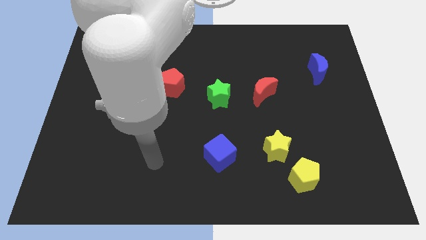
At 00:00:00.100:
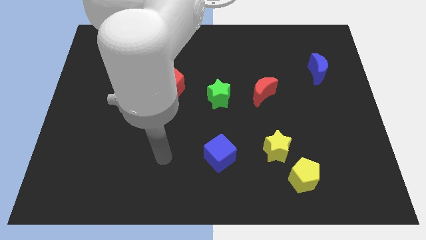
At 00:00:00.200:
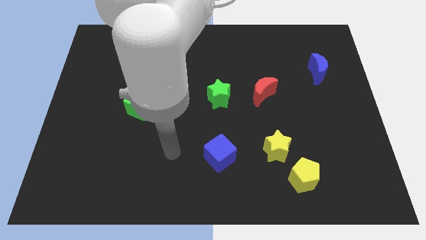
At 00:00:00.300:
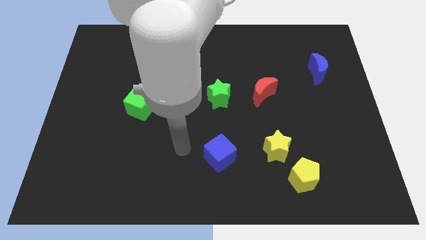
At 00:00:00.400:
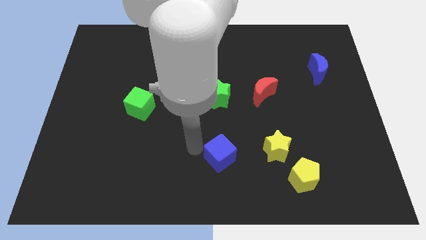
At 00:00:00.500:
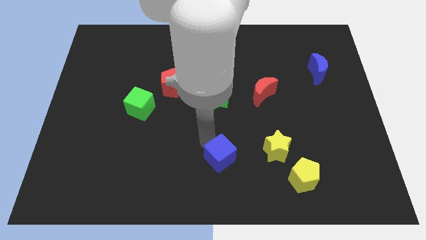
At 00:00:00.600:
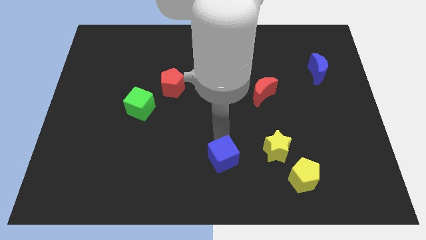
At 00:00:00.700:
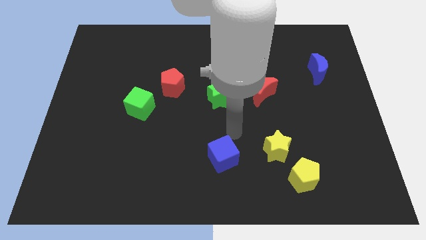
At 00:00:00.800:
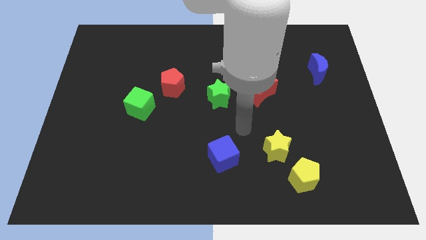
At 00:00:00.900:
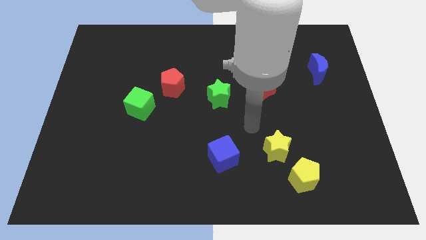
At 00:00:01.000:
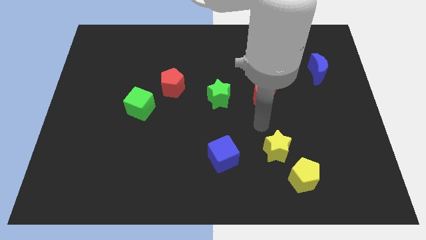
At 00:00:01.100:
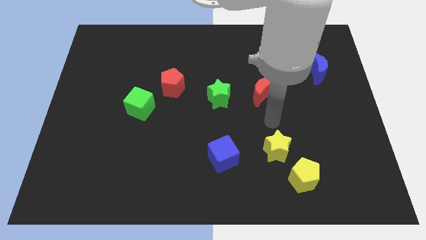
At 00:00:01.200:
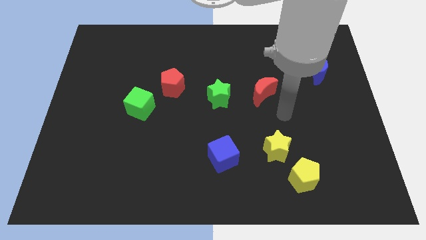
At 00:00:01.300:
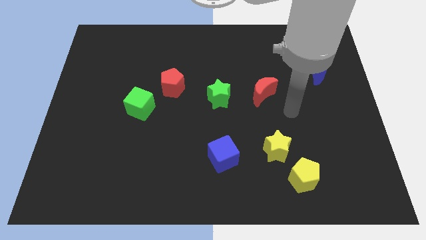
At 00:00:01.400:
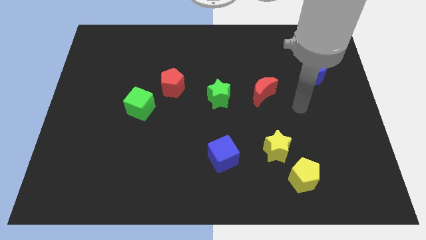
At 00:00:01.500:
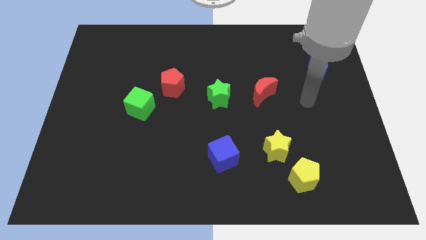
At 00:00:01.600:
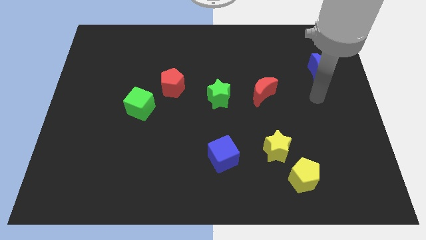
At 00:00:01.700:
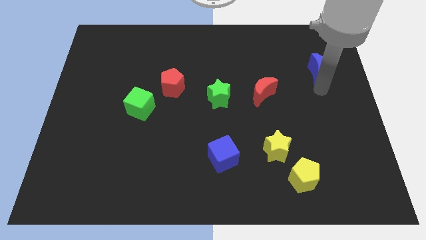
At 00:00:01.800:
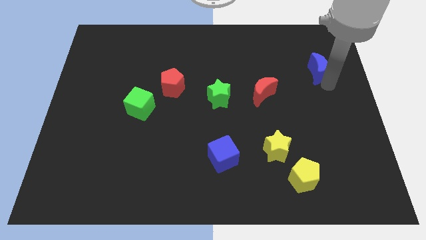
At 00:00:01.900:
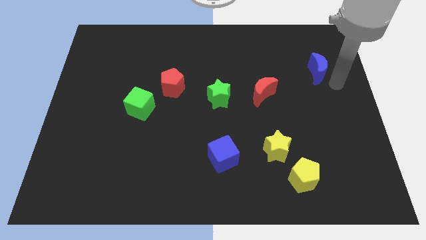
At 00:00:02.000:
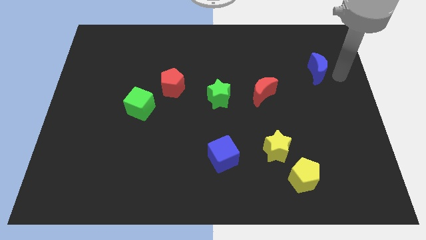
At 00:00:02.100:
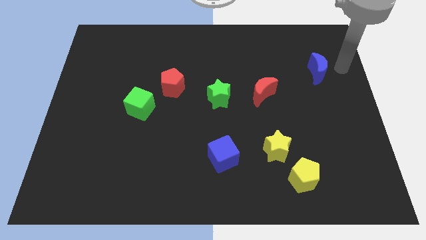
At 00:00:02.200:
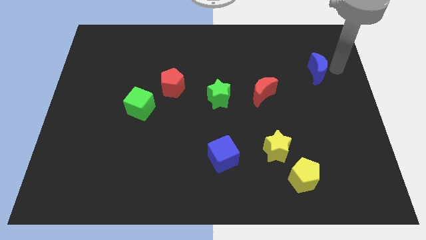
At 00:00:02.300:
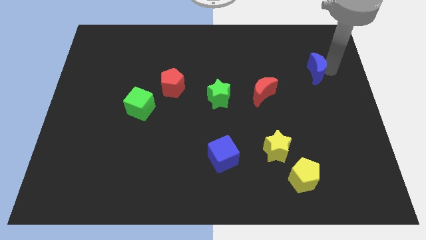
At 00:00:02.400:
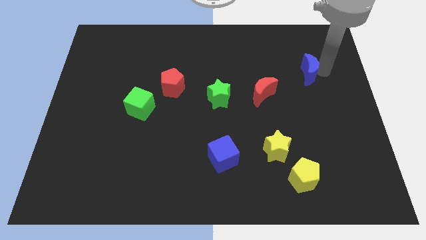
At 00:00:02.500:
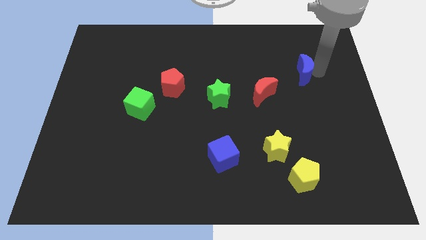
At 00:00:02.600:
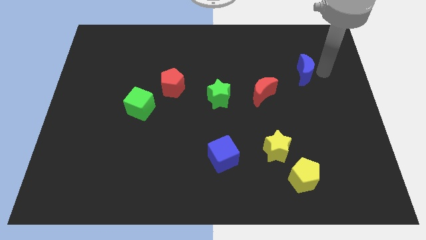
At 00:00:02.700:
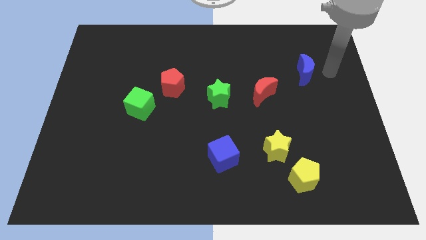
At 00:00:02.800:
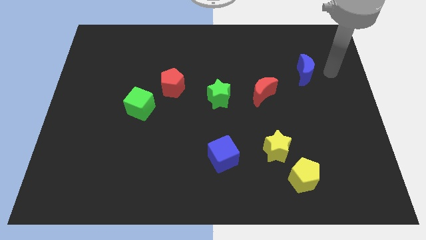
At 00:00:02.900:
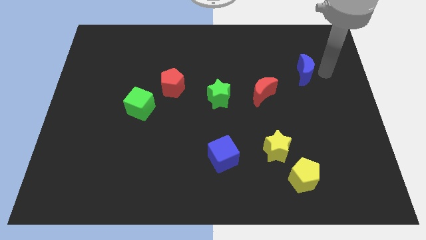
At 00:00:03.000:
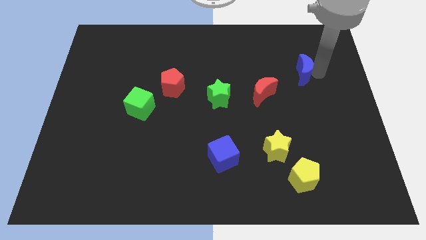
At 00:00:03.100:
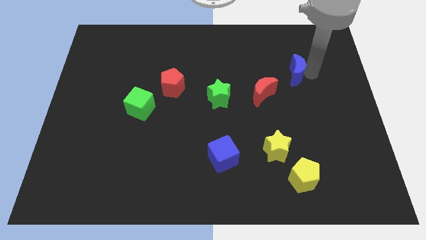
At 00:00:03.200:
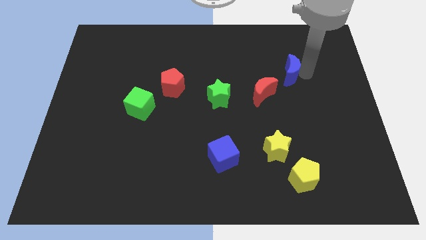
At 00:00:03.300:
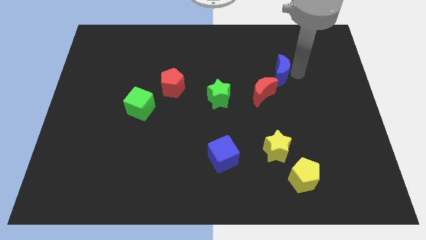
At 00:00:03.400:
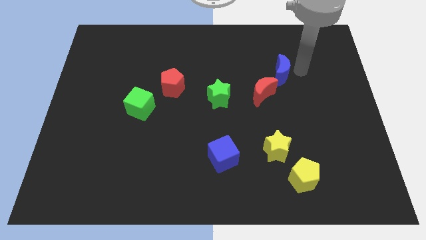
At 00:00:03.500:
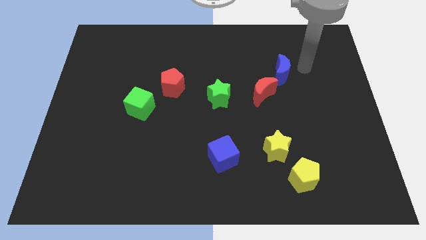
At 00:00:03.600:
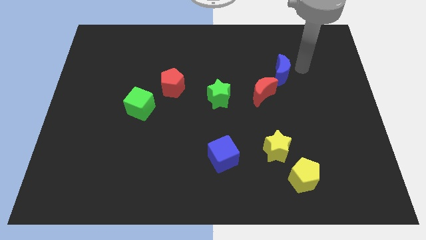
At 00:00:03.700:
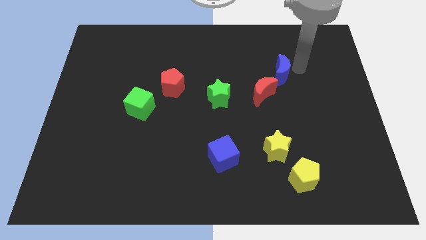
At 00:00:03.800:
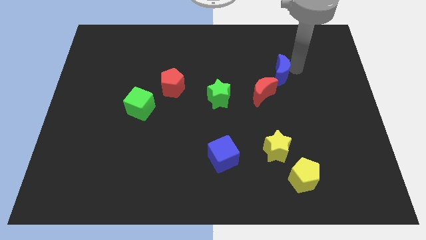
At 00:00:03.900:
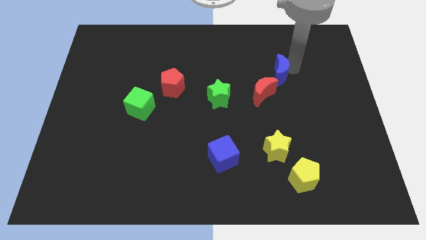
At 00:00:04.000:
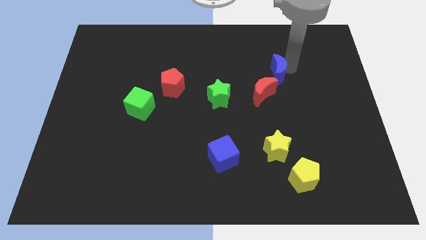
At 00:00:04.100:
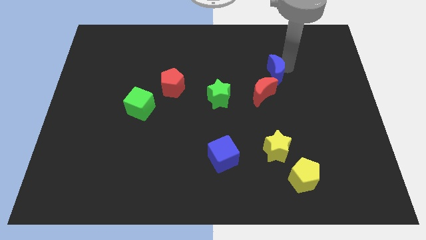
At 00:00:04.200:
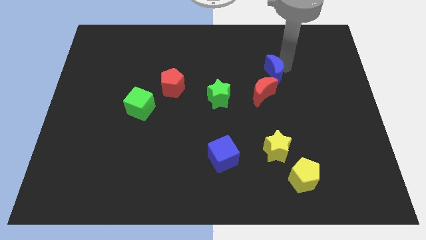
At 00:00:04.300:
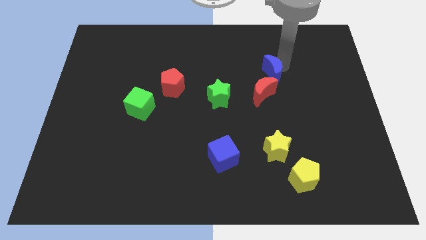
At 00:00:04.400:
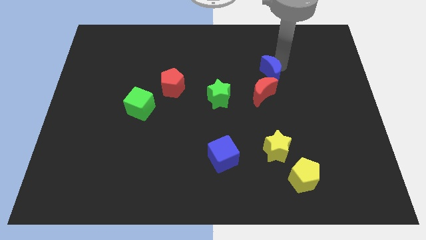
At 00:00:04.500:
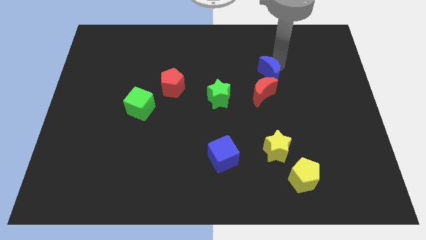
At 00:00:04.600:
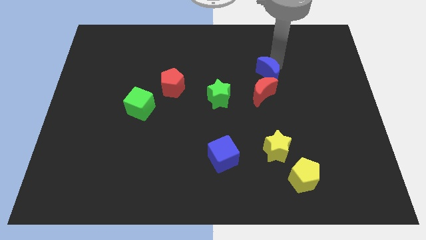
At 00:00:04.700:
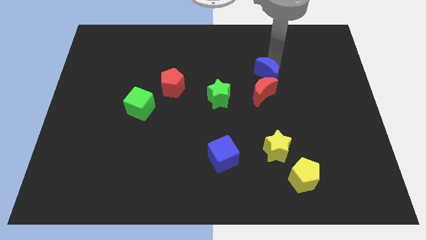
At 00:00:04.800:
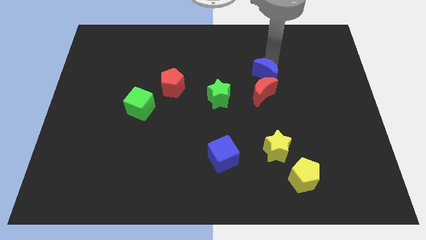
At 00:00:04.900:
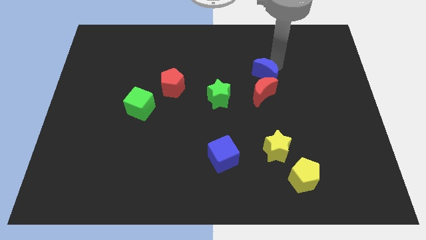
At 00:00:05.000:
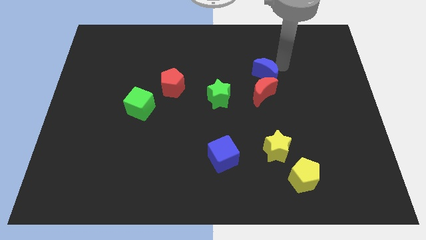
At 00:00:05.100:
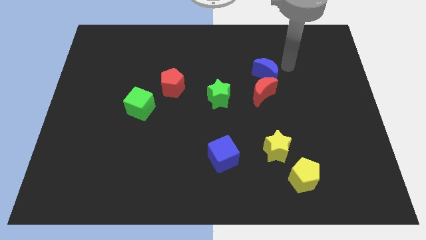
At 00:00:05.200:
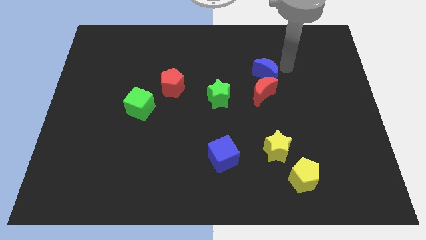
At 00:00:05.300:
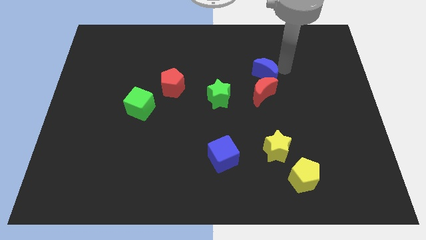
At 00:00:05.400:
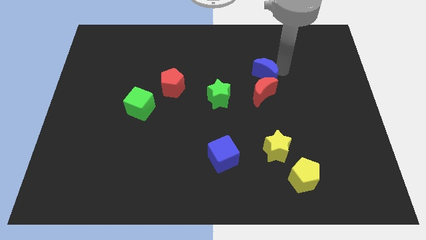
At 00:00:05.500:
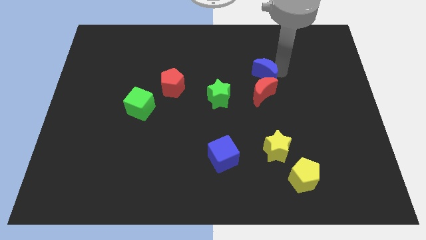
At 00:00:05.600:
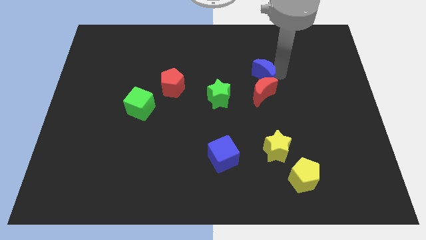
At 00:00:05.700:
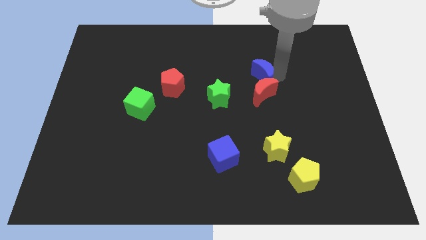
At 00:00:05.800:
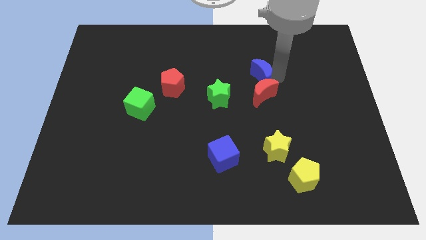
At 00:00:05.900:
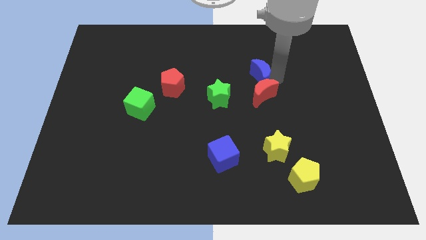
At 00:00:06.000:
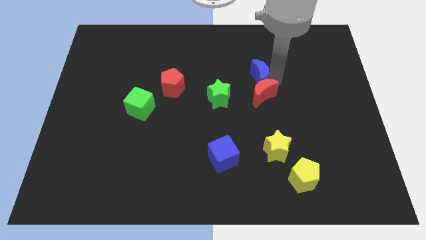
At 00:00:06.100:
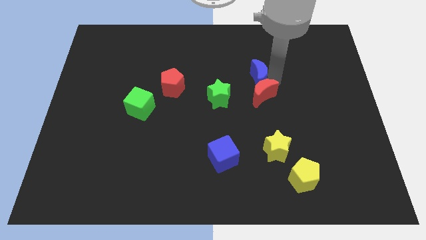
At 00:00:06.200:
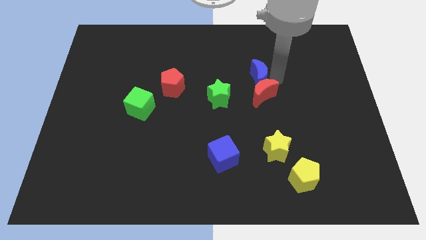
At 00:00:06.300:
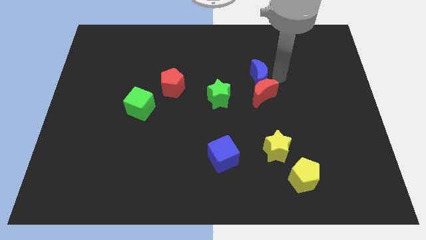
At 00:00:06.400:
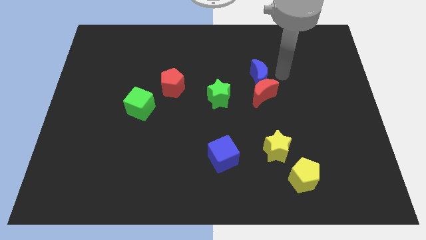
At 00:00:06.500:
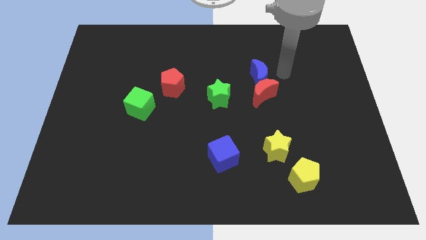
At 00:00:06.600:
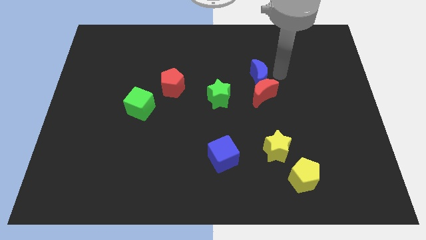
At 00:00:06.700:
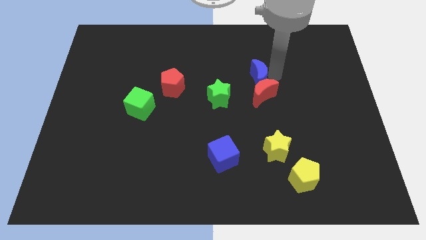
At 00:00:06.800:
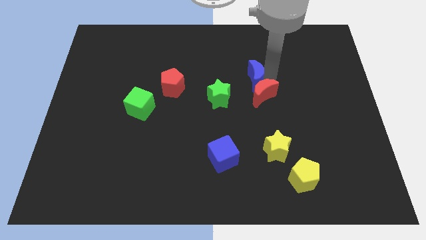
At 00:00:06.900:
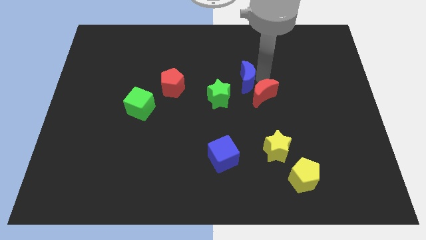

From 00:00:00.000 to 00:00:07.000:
slide the blue moon to the left side of the red moon

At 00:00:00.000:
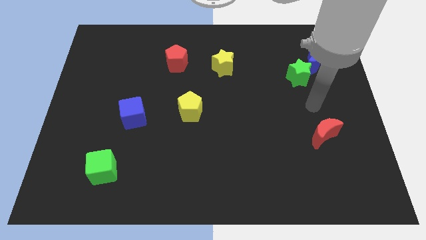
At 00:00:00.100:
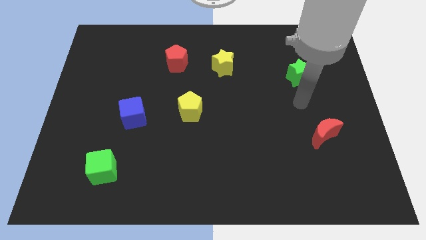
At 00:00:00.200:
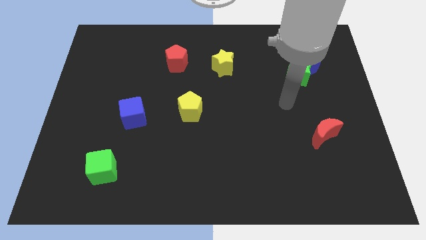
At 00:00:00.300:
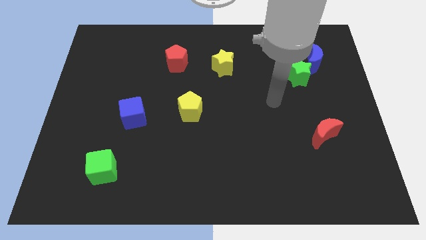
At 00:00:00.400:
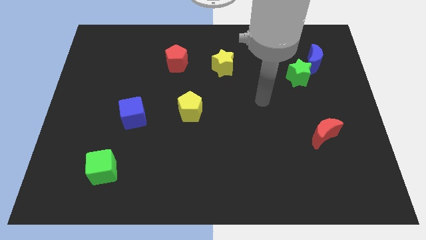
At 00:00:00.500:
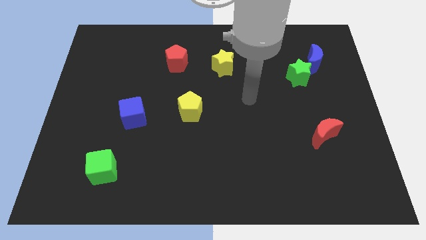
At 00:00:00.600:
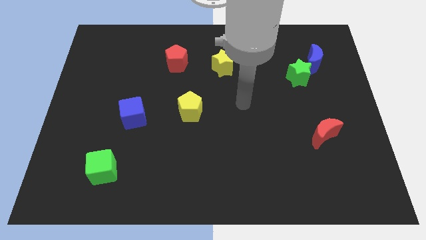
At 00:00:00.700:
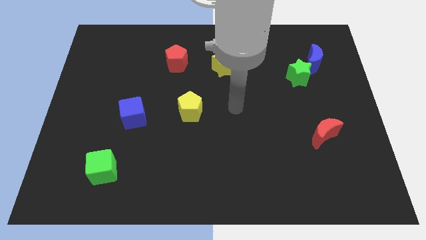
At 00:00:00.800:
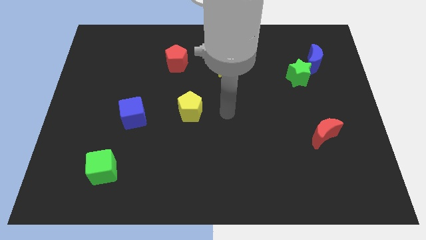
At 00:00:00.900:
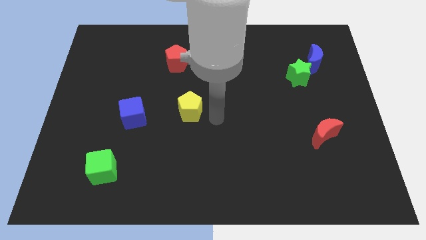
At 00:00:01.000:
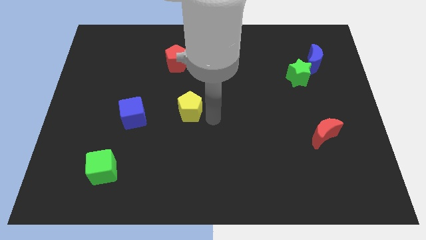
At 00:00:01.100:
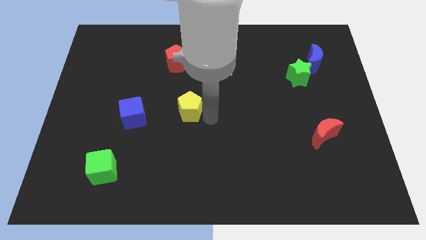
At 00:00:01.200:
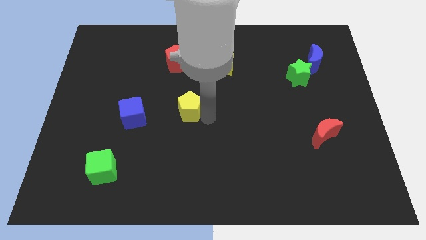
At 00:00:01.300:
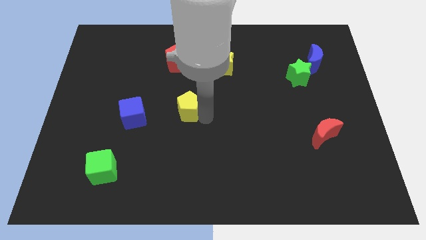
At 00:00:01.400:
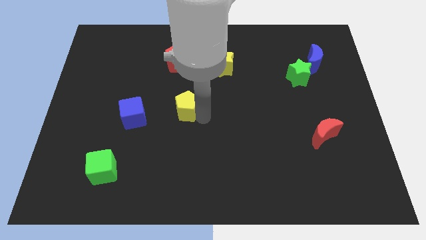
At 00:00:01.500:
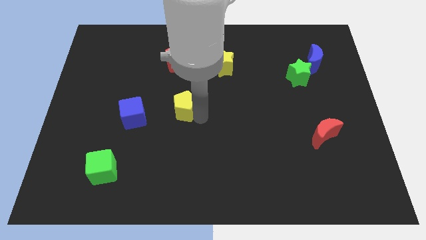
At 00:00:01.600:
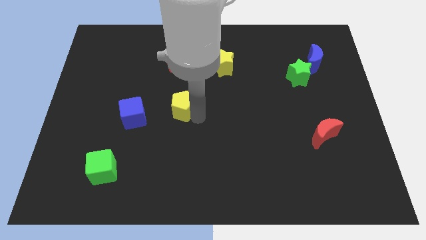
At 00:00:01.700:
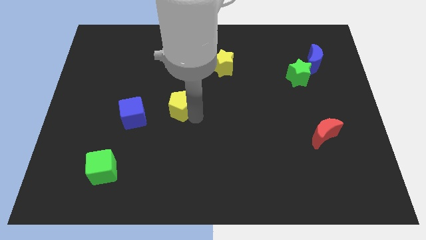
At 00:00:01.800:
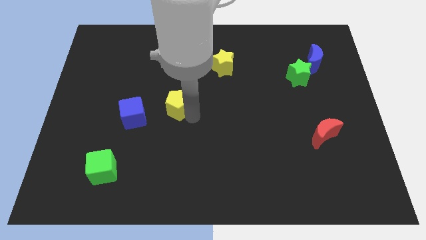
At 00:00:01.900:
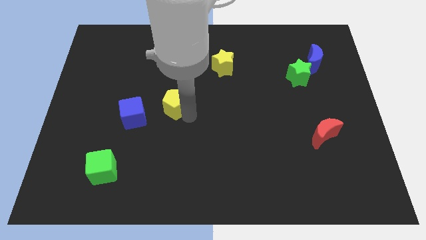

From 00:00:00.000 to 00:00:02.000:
slide the yellow pentagon to the top right side of the blue cube
